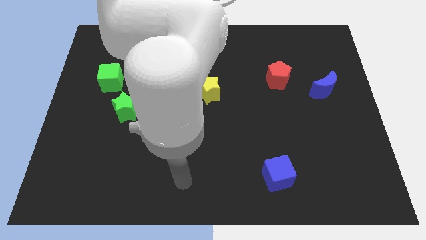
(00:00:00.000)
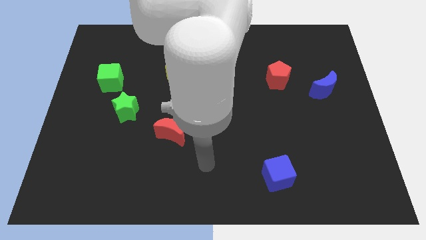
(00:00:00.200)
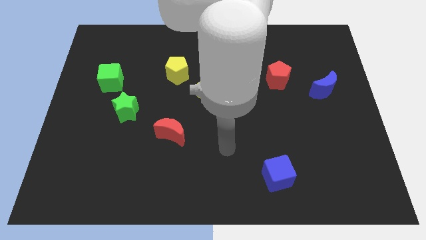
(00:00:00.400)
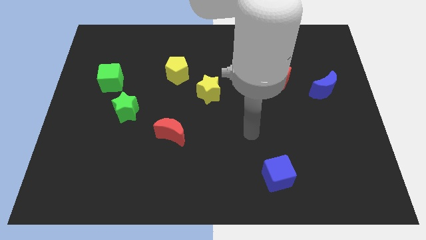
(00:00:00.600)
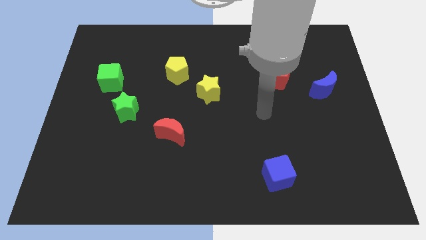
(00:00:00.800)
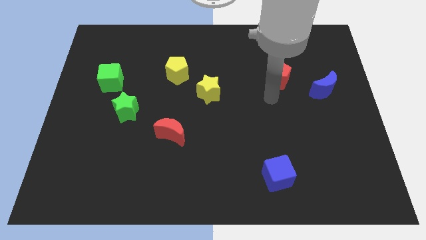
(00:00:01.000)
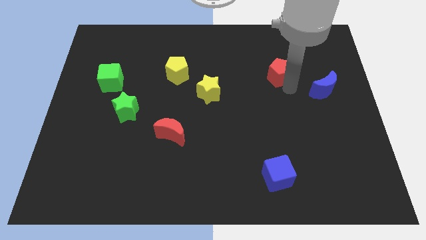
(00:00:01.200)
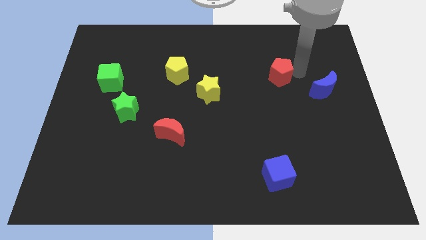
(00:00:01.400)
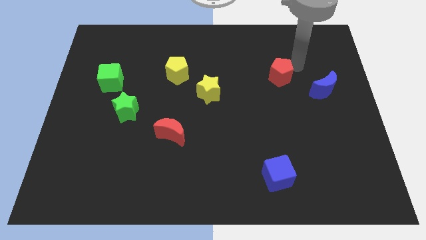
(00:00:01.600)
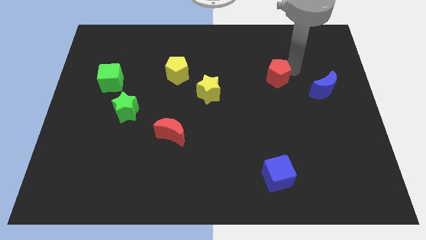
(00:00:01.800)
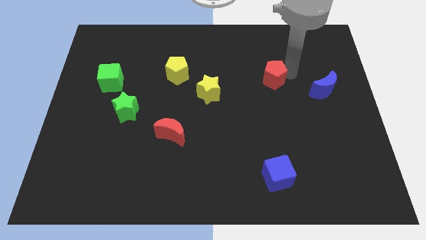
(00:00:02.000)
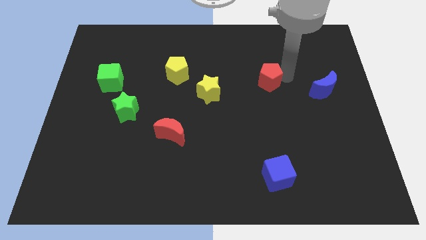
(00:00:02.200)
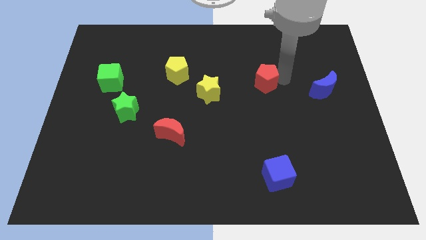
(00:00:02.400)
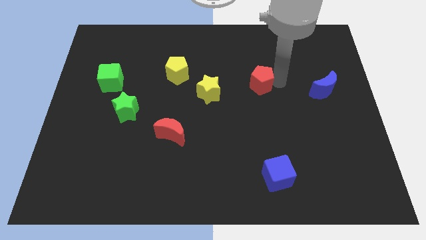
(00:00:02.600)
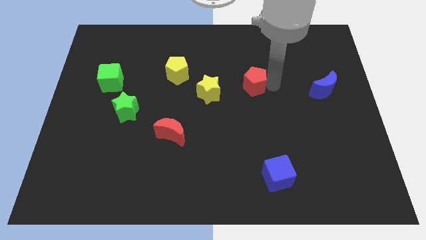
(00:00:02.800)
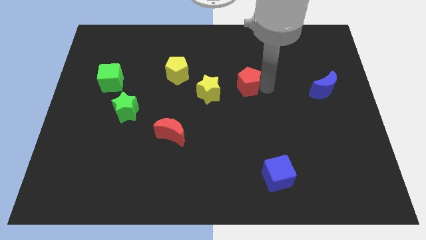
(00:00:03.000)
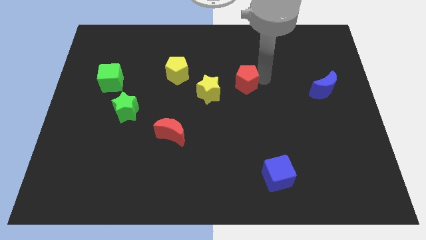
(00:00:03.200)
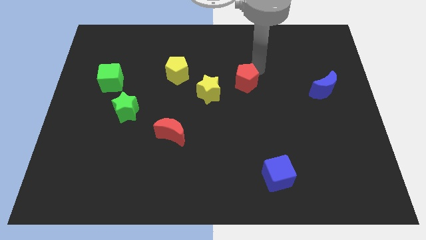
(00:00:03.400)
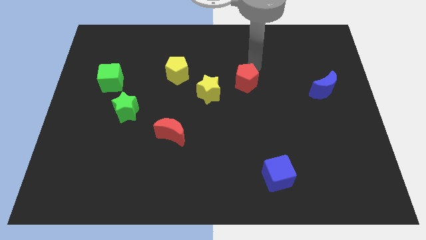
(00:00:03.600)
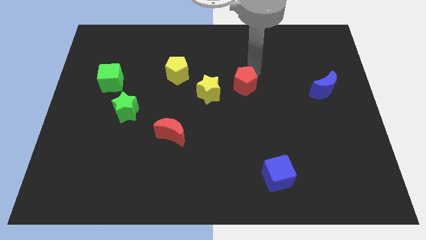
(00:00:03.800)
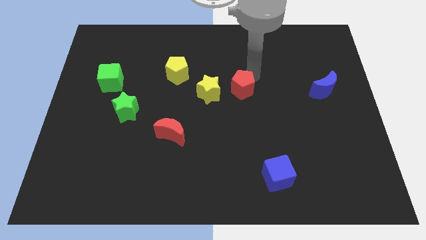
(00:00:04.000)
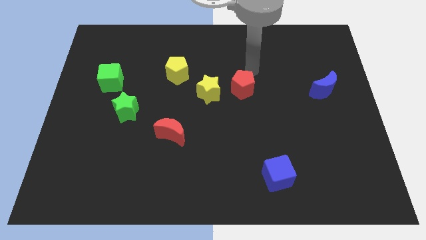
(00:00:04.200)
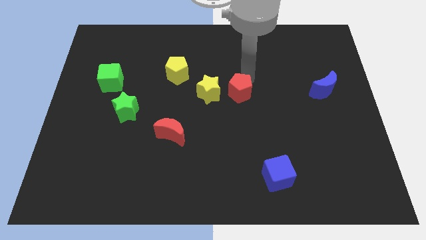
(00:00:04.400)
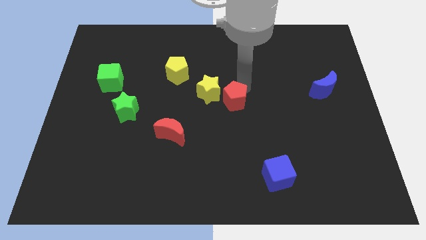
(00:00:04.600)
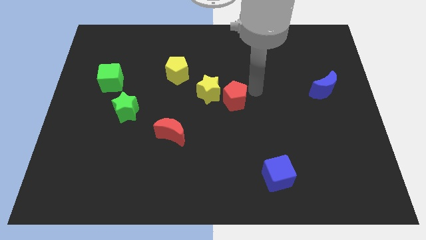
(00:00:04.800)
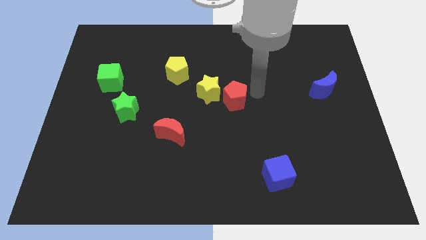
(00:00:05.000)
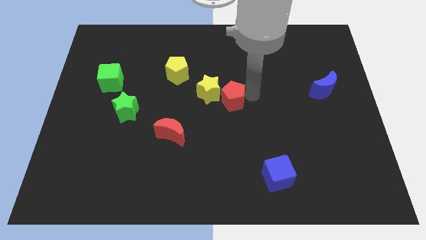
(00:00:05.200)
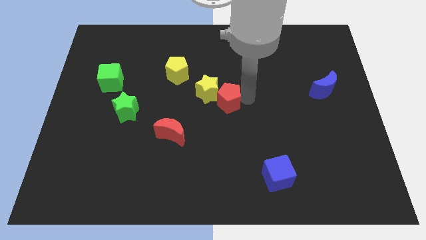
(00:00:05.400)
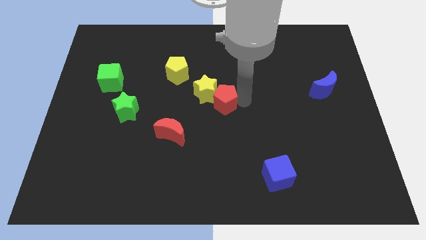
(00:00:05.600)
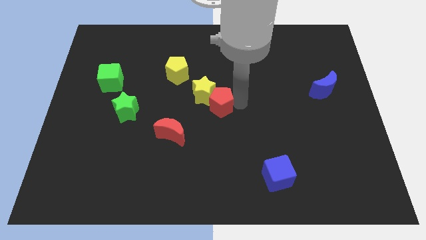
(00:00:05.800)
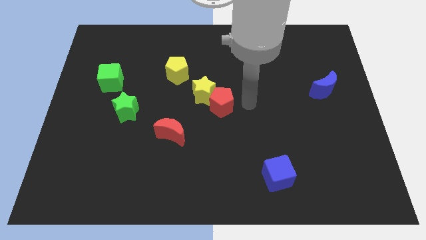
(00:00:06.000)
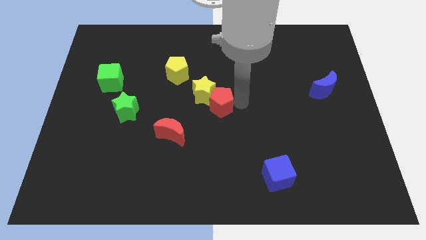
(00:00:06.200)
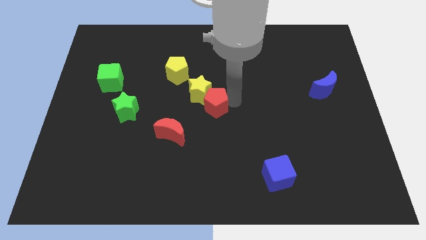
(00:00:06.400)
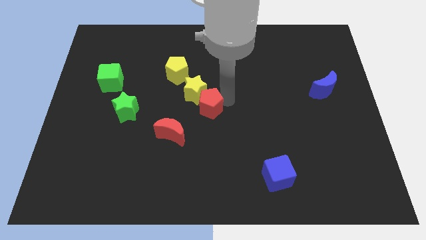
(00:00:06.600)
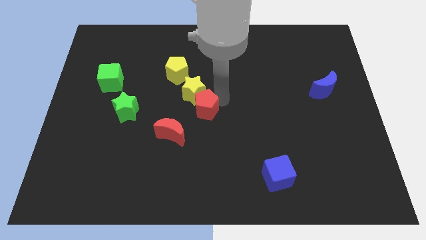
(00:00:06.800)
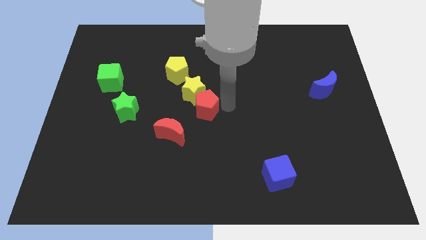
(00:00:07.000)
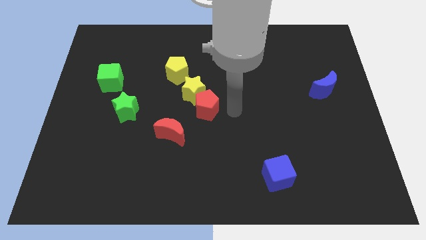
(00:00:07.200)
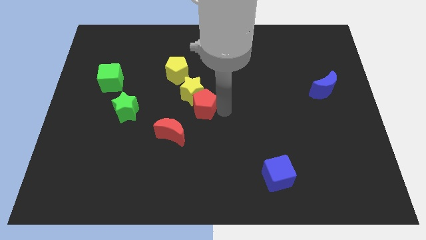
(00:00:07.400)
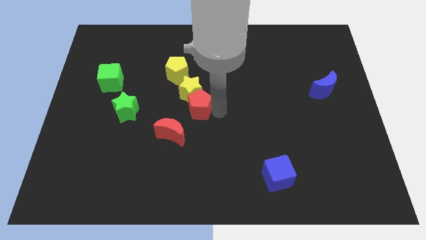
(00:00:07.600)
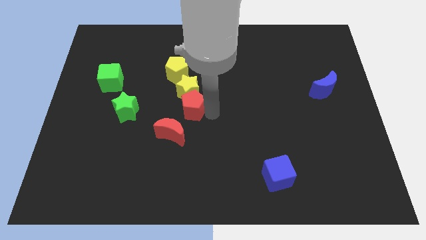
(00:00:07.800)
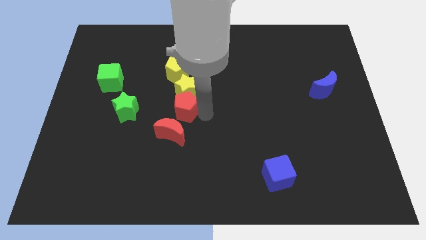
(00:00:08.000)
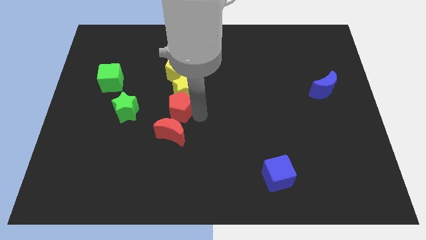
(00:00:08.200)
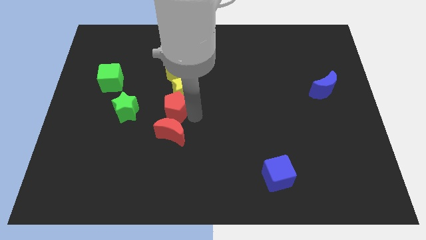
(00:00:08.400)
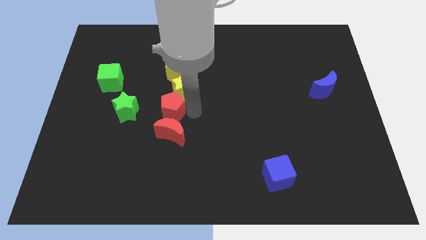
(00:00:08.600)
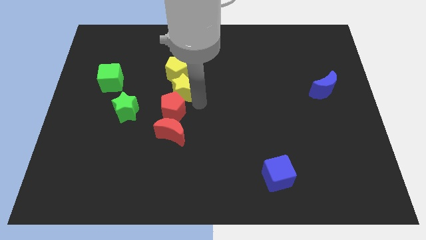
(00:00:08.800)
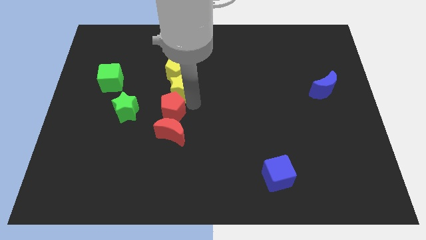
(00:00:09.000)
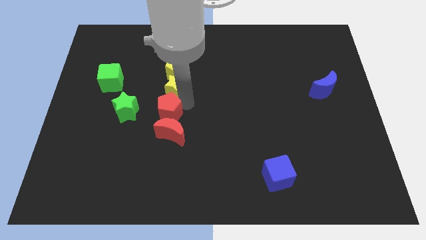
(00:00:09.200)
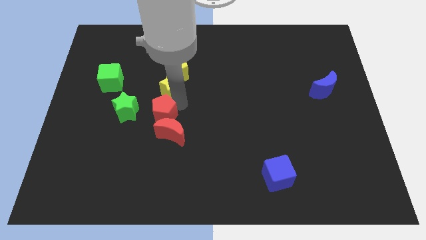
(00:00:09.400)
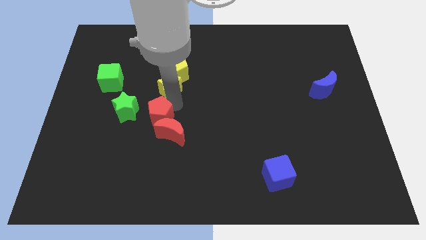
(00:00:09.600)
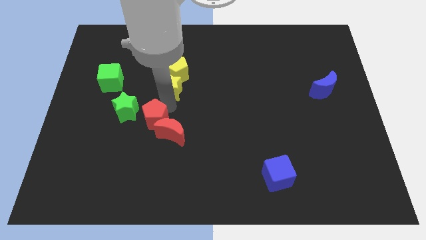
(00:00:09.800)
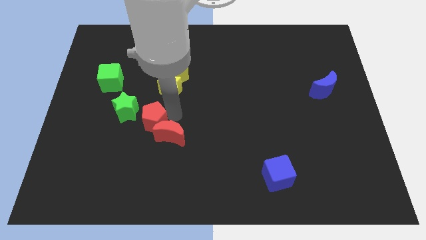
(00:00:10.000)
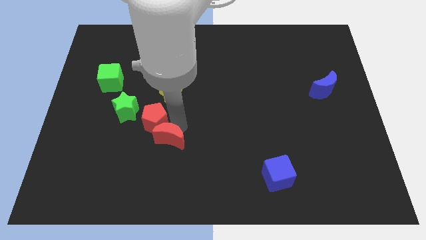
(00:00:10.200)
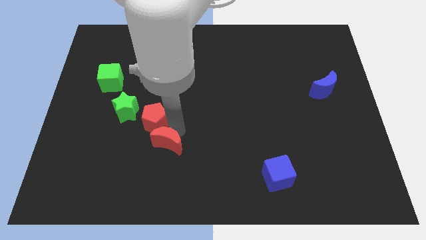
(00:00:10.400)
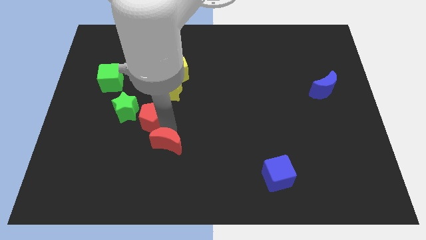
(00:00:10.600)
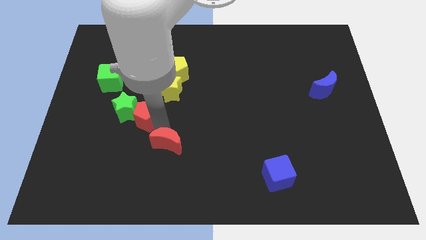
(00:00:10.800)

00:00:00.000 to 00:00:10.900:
move the red pentagon next to the green star

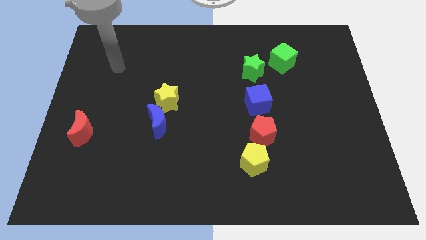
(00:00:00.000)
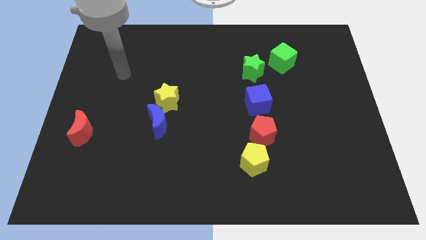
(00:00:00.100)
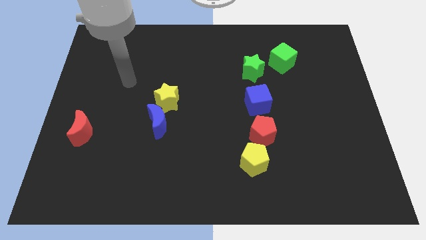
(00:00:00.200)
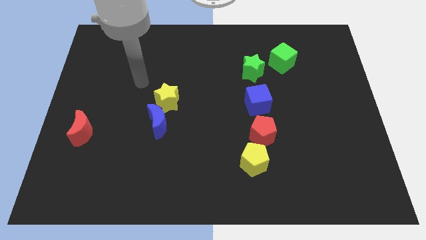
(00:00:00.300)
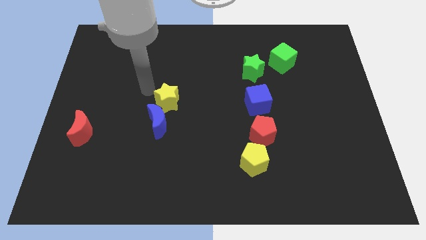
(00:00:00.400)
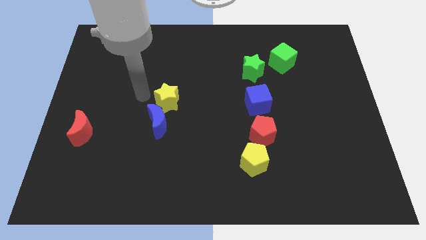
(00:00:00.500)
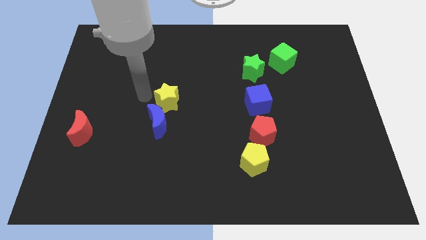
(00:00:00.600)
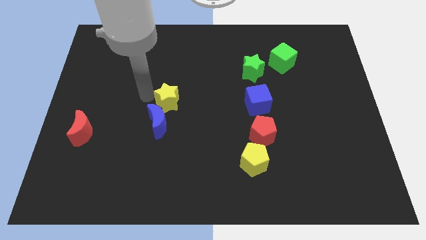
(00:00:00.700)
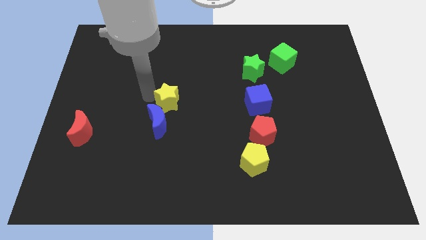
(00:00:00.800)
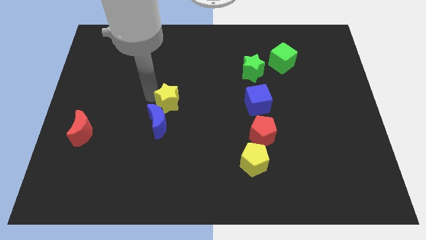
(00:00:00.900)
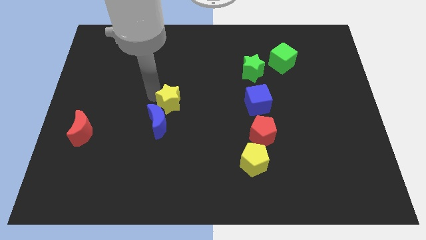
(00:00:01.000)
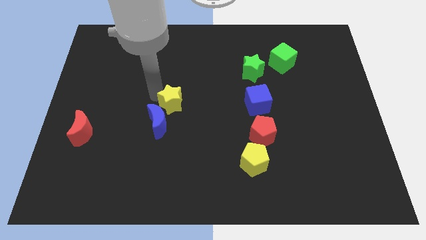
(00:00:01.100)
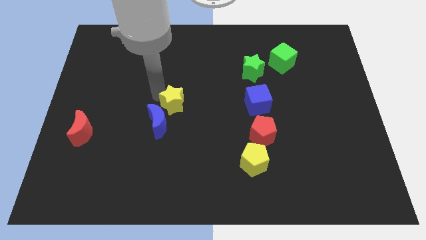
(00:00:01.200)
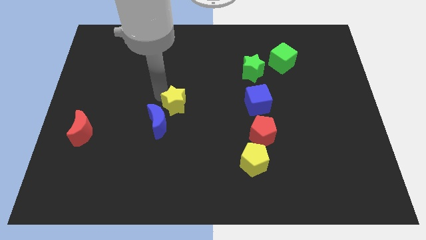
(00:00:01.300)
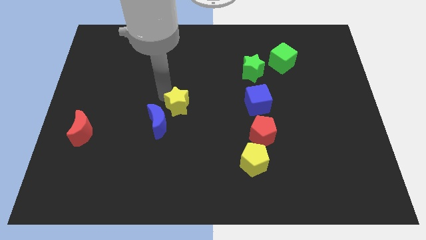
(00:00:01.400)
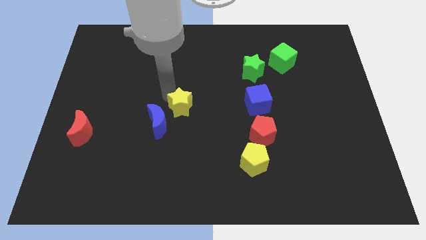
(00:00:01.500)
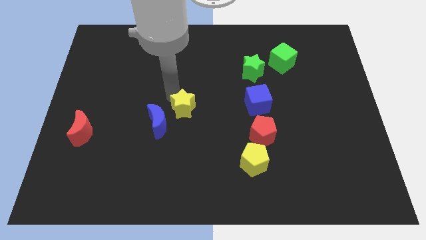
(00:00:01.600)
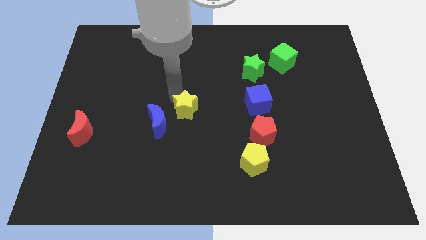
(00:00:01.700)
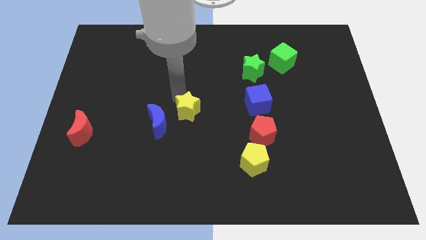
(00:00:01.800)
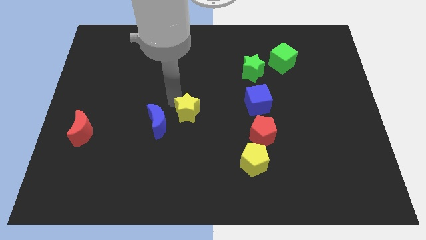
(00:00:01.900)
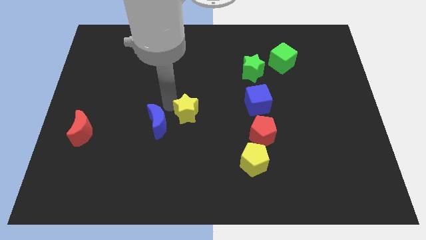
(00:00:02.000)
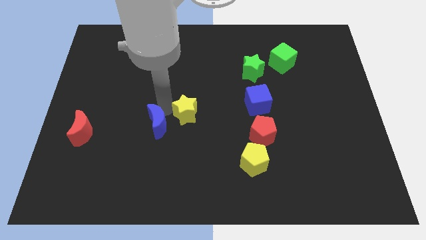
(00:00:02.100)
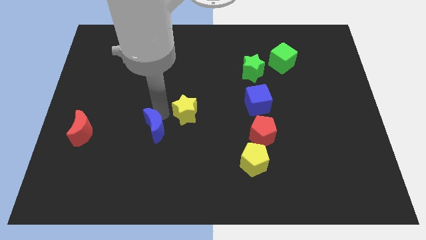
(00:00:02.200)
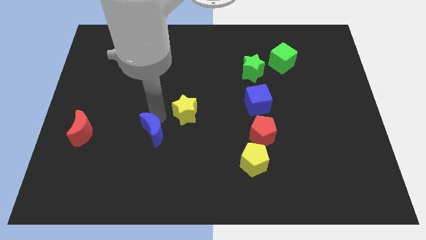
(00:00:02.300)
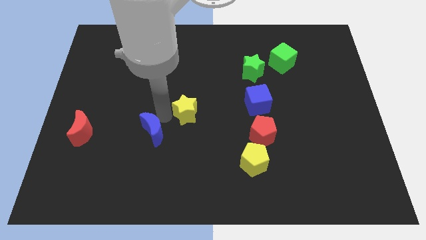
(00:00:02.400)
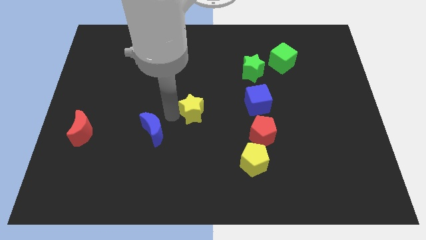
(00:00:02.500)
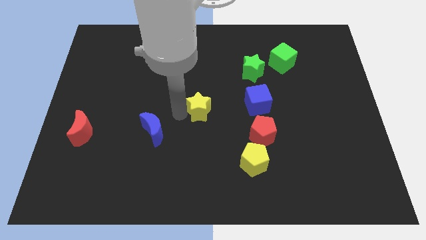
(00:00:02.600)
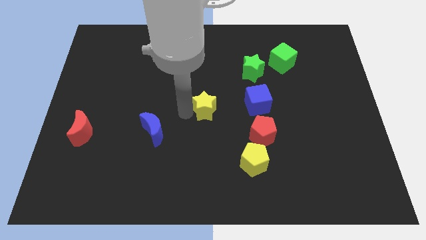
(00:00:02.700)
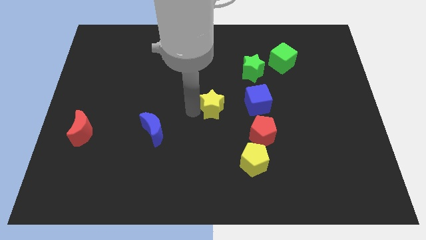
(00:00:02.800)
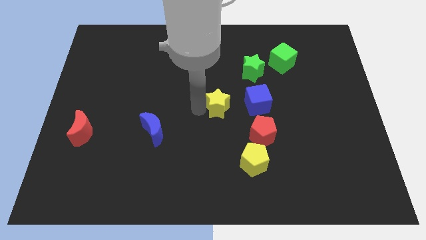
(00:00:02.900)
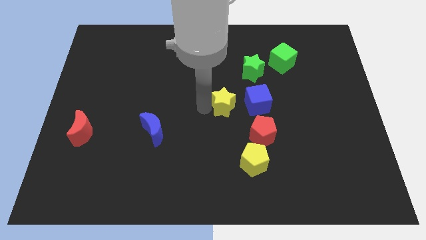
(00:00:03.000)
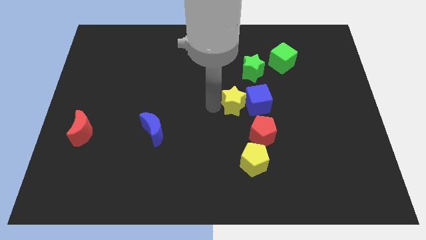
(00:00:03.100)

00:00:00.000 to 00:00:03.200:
push the yellow star next to the blue cube
